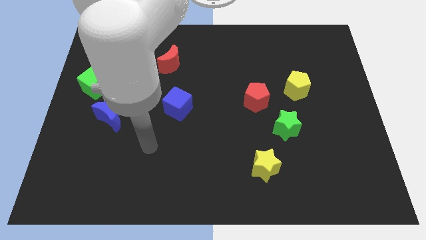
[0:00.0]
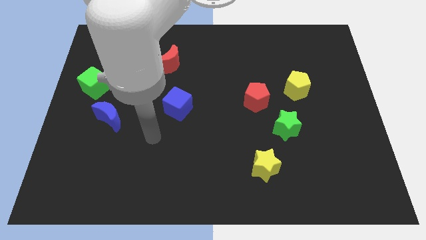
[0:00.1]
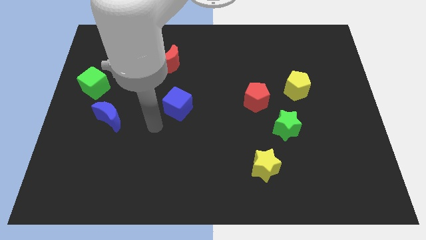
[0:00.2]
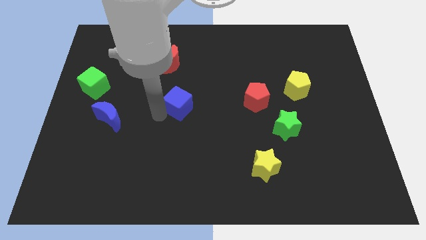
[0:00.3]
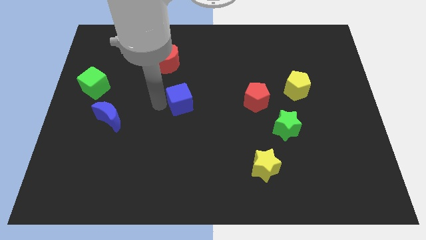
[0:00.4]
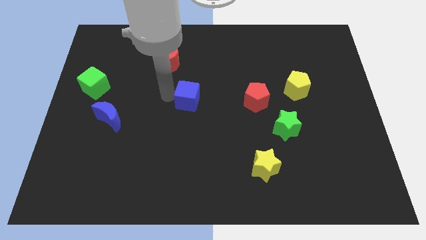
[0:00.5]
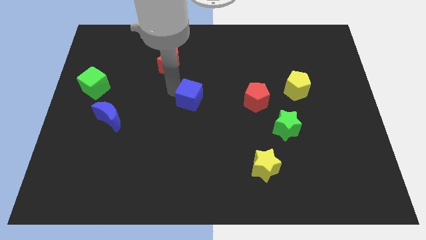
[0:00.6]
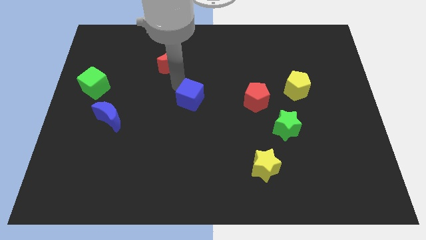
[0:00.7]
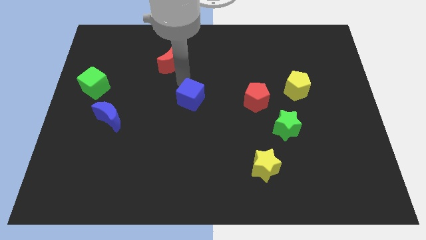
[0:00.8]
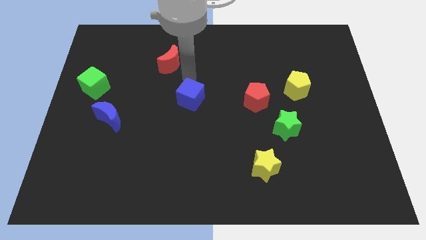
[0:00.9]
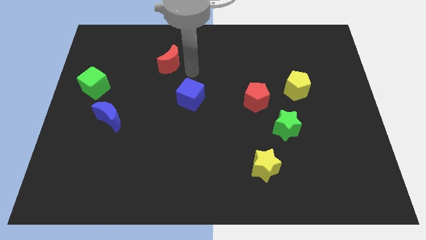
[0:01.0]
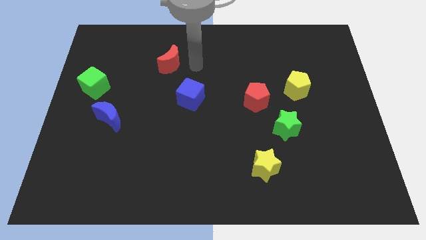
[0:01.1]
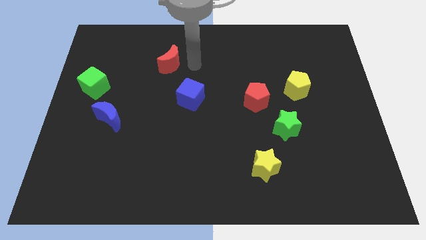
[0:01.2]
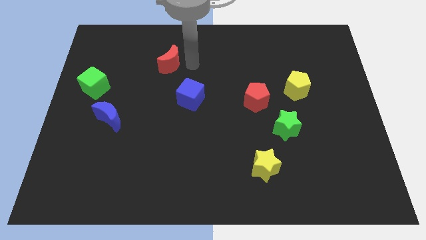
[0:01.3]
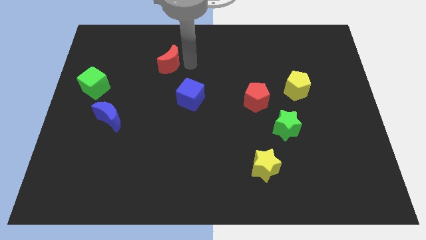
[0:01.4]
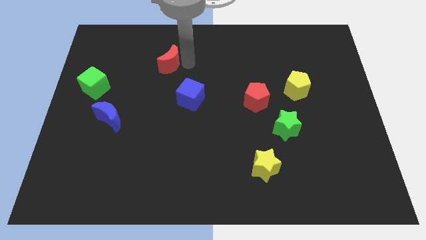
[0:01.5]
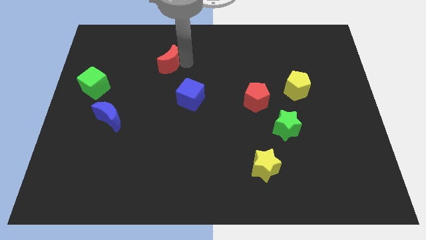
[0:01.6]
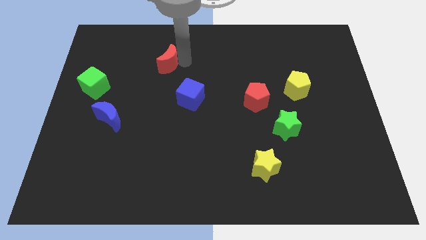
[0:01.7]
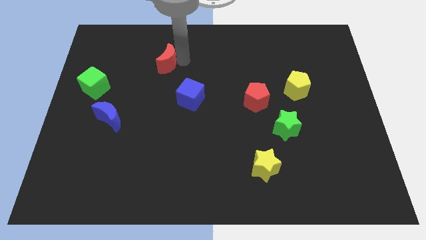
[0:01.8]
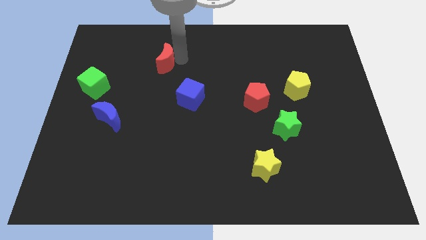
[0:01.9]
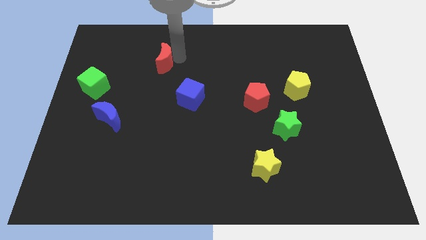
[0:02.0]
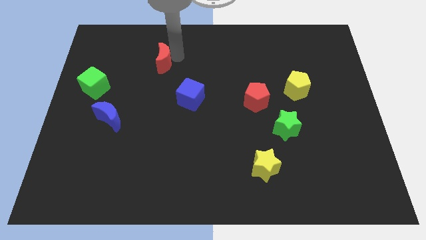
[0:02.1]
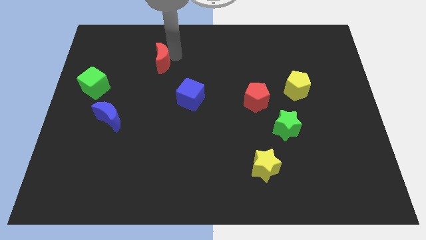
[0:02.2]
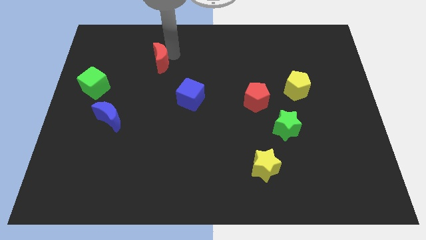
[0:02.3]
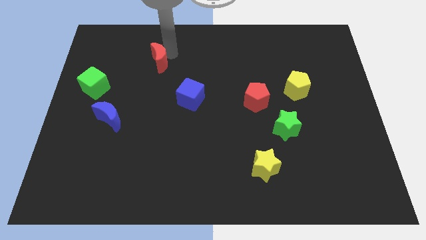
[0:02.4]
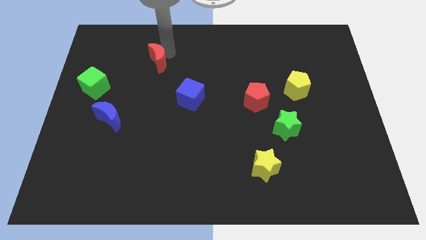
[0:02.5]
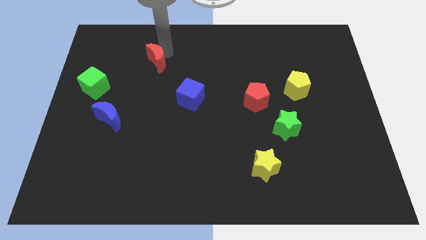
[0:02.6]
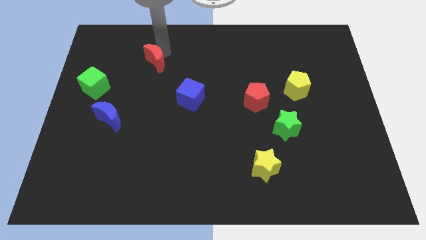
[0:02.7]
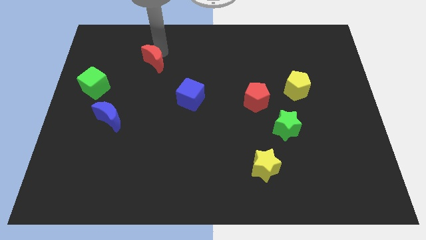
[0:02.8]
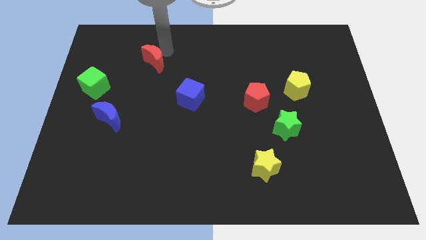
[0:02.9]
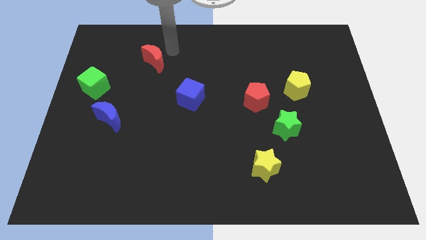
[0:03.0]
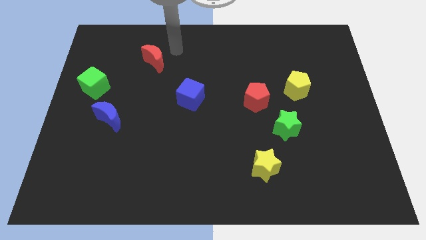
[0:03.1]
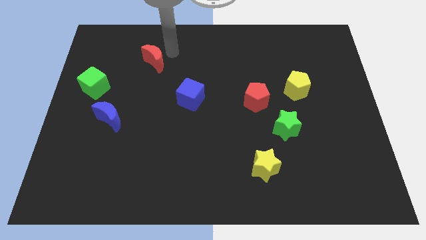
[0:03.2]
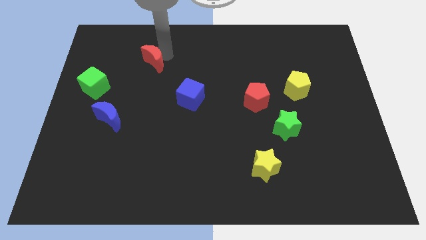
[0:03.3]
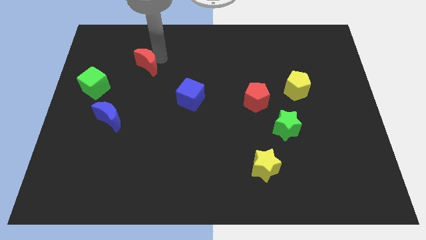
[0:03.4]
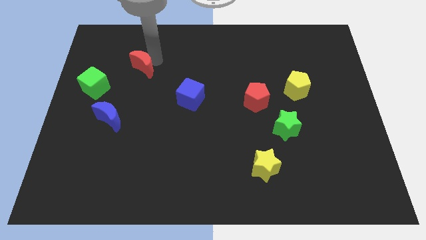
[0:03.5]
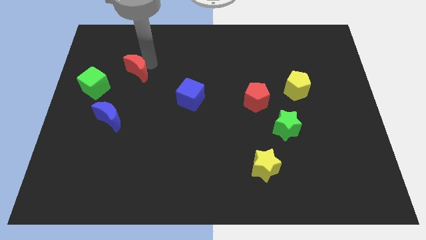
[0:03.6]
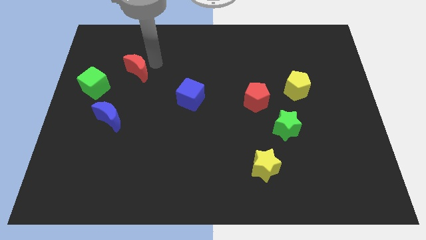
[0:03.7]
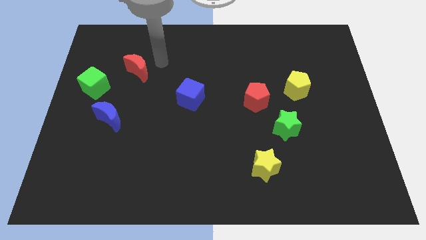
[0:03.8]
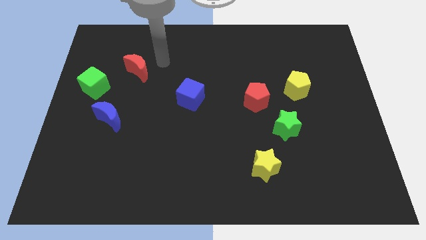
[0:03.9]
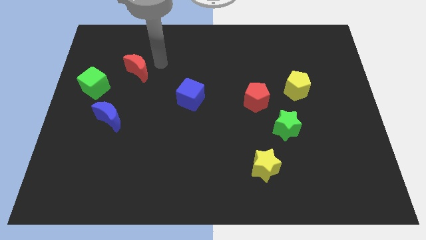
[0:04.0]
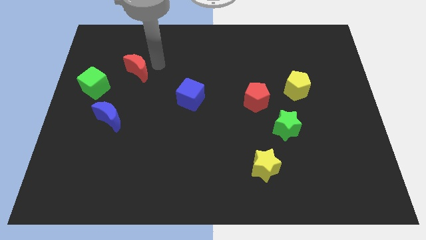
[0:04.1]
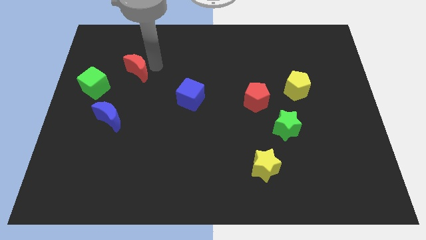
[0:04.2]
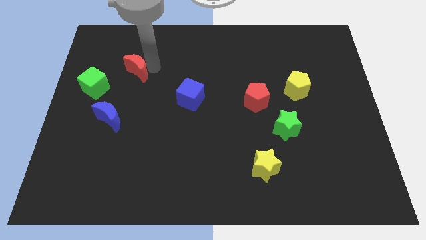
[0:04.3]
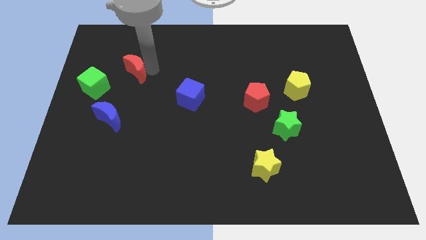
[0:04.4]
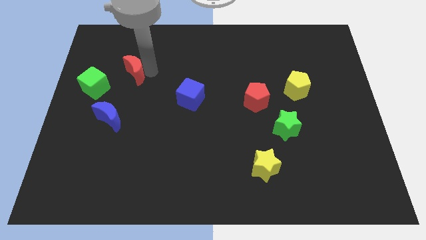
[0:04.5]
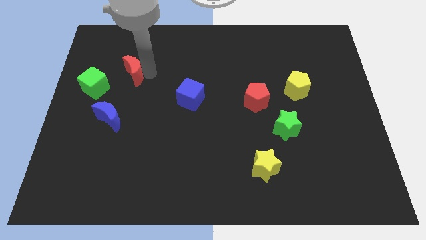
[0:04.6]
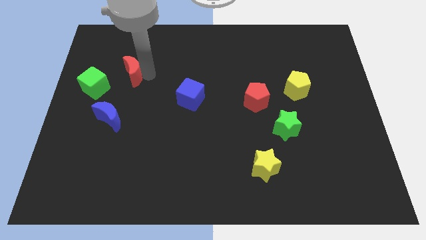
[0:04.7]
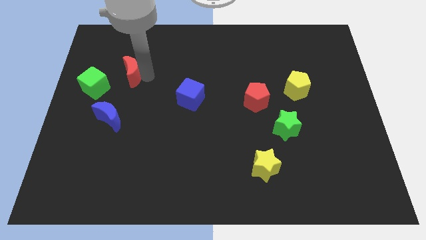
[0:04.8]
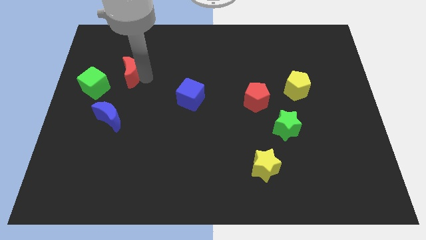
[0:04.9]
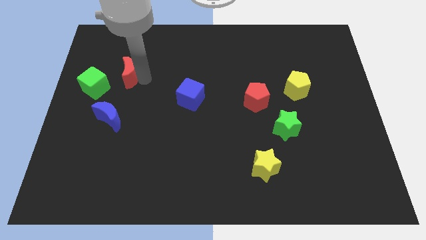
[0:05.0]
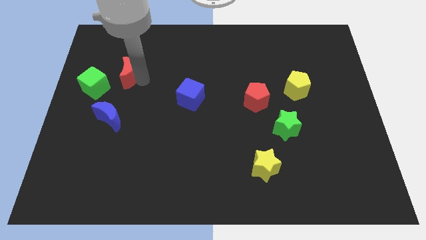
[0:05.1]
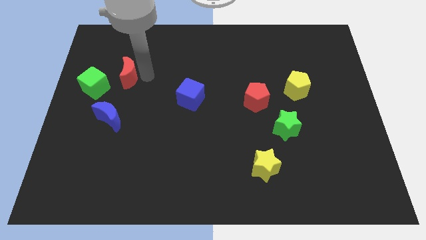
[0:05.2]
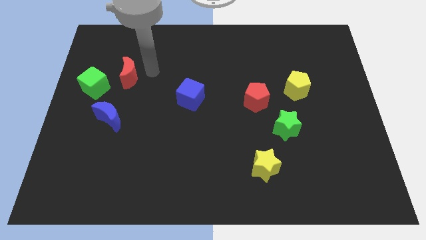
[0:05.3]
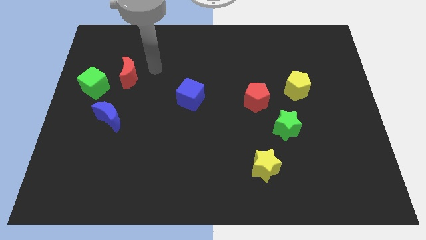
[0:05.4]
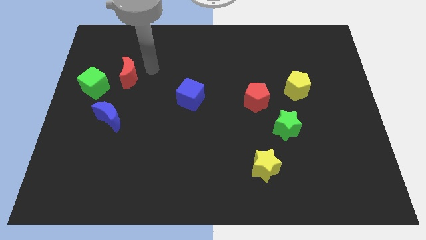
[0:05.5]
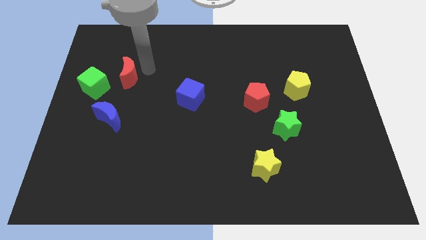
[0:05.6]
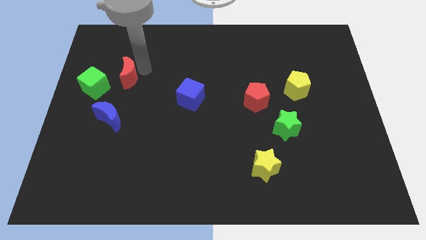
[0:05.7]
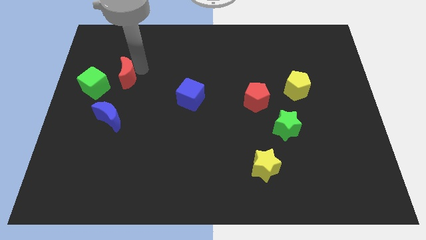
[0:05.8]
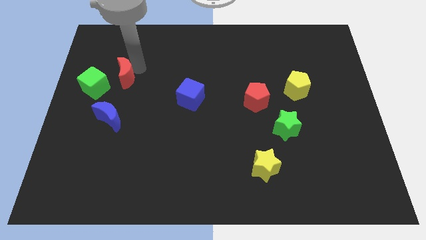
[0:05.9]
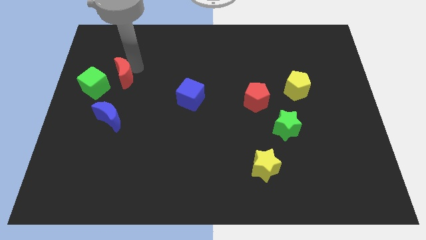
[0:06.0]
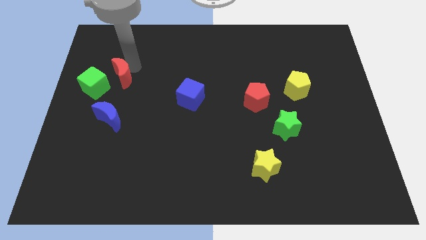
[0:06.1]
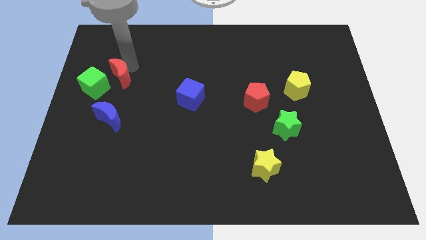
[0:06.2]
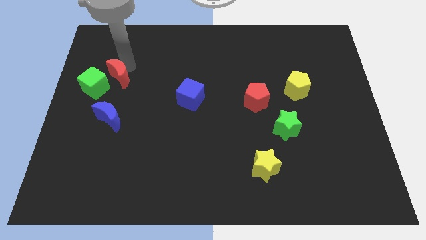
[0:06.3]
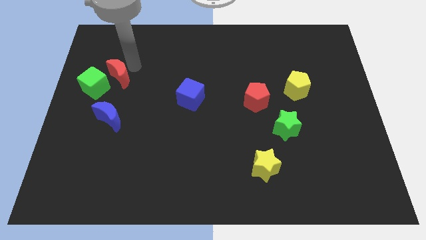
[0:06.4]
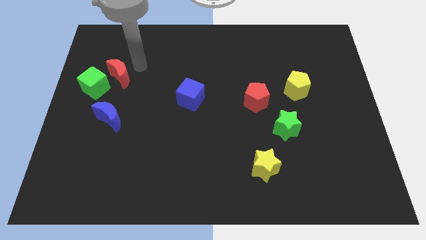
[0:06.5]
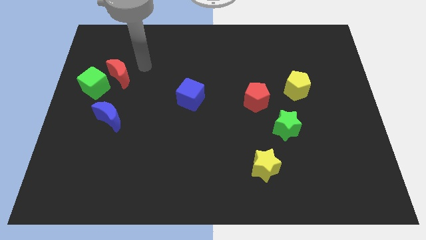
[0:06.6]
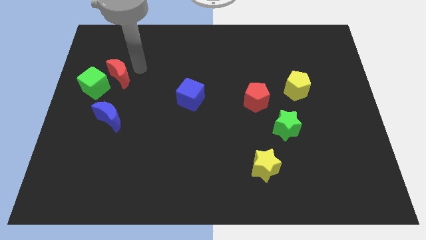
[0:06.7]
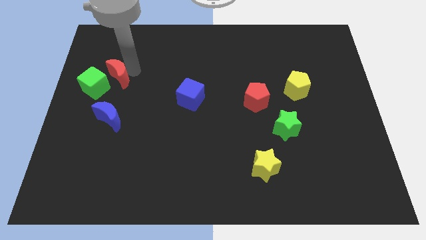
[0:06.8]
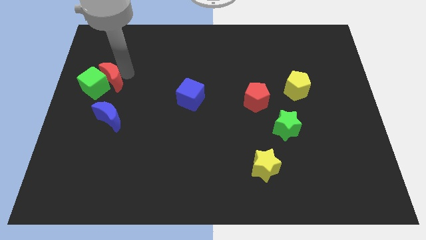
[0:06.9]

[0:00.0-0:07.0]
move the red moon close to the green cube
